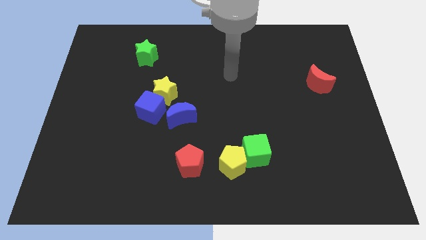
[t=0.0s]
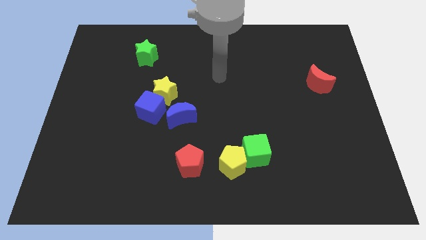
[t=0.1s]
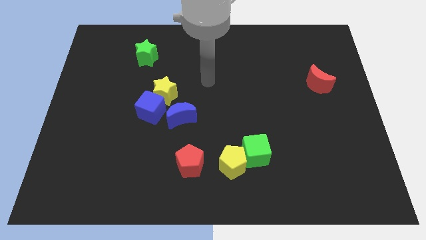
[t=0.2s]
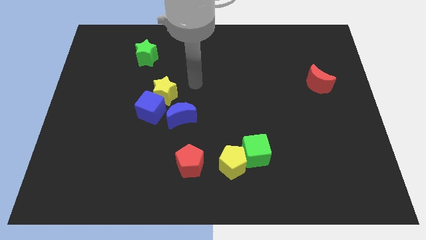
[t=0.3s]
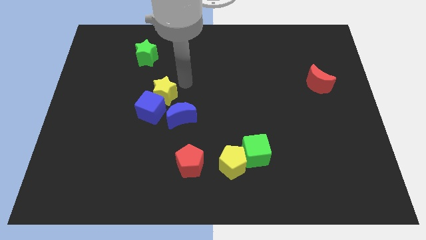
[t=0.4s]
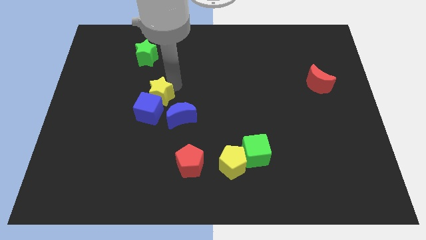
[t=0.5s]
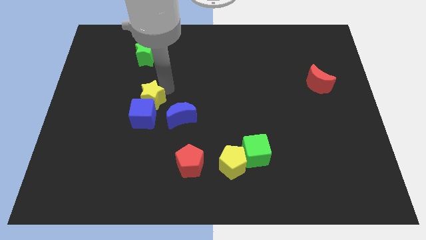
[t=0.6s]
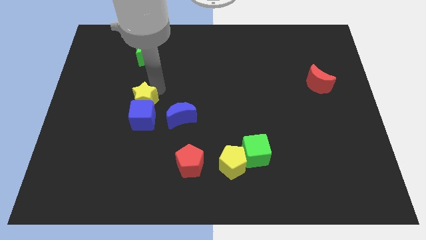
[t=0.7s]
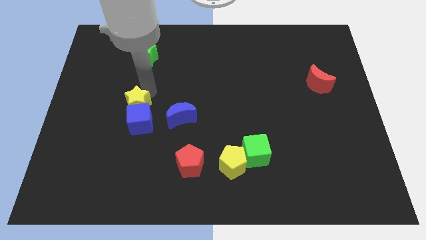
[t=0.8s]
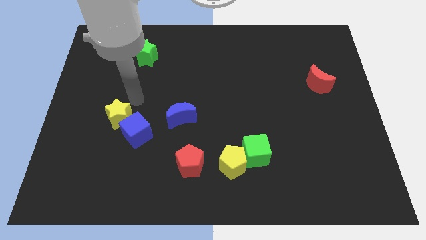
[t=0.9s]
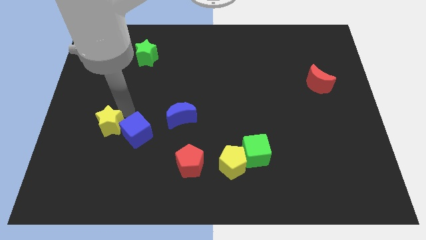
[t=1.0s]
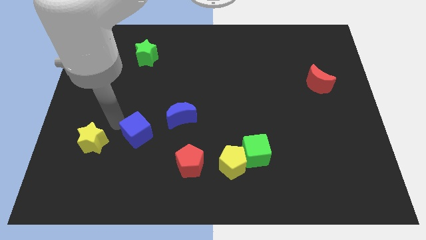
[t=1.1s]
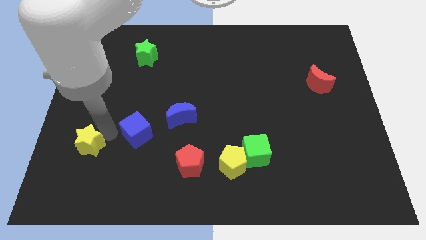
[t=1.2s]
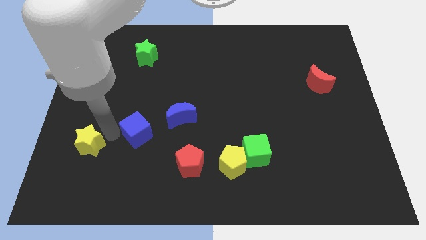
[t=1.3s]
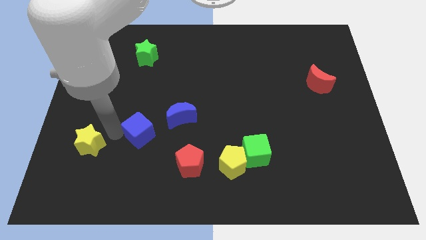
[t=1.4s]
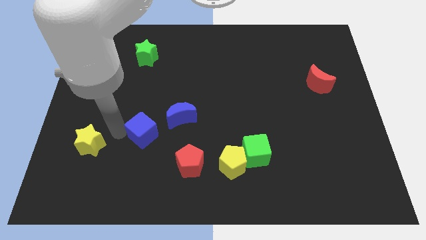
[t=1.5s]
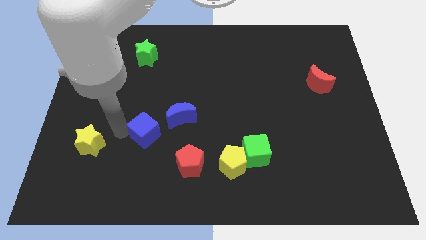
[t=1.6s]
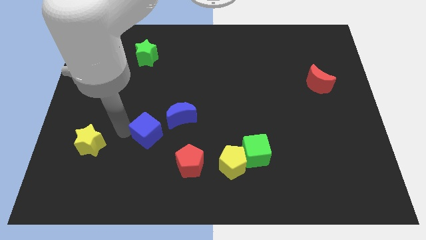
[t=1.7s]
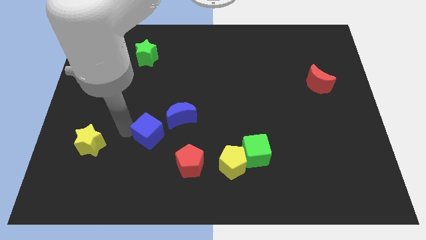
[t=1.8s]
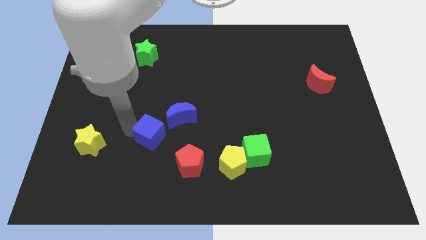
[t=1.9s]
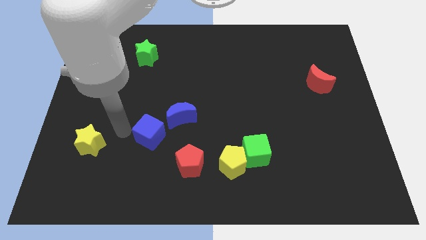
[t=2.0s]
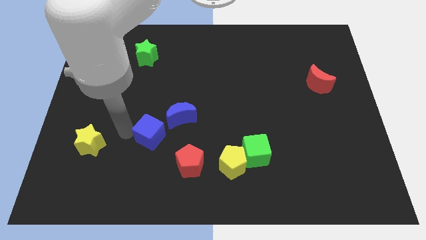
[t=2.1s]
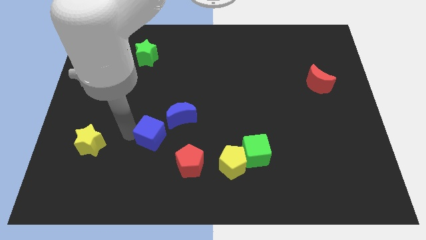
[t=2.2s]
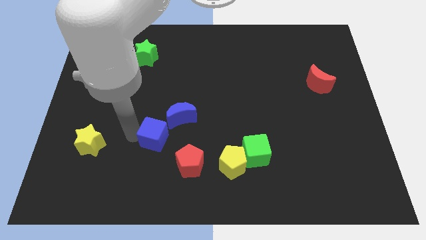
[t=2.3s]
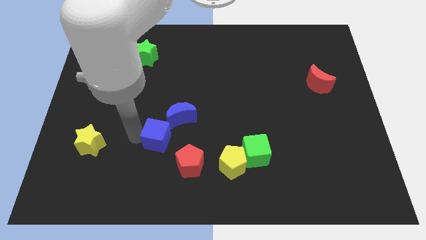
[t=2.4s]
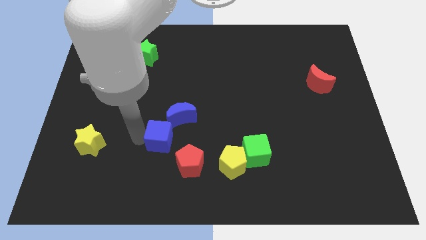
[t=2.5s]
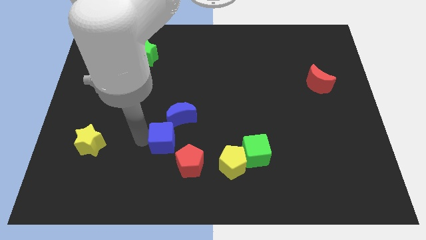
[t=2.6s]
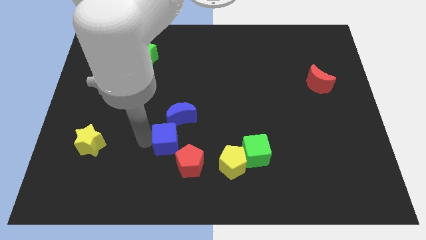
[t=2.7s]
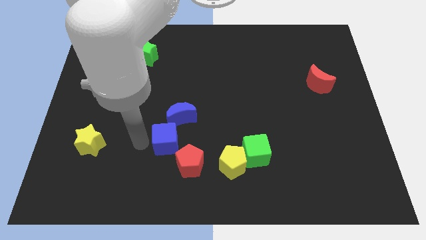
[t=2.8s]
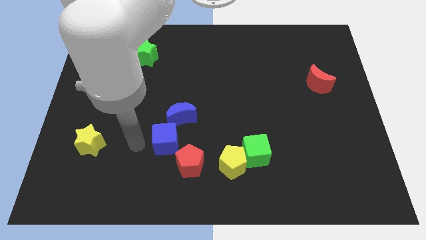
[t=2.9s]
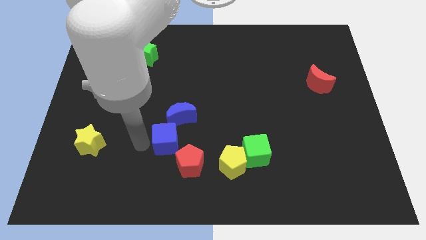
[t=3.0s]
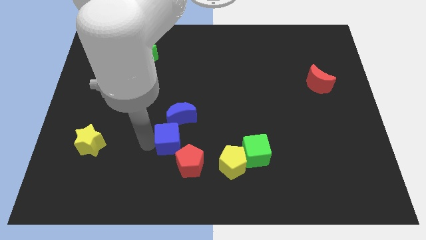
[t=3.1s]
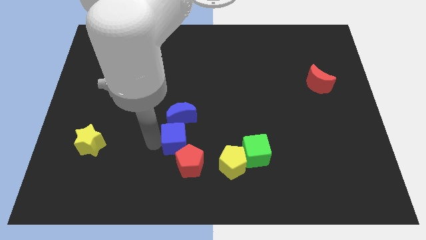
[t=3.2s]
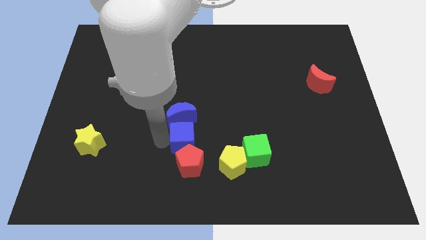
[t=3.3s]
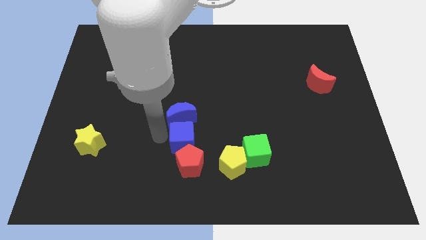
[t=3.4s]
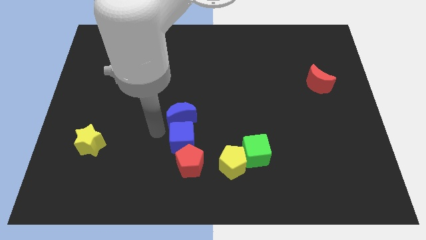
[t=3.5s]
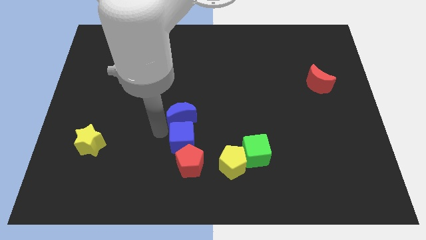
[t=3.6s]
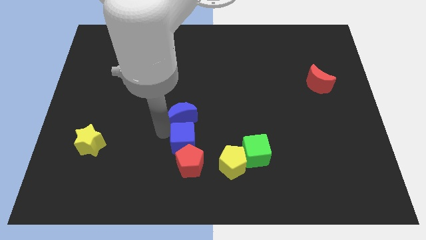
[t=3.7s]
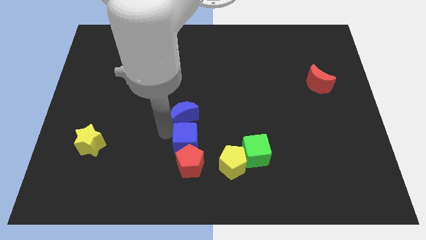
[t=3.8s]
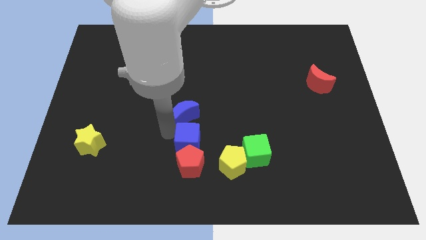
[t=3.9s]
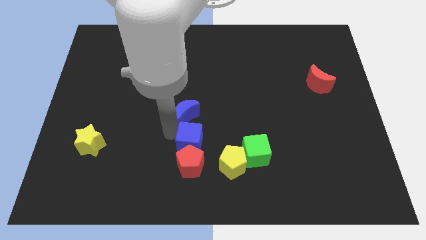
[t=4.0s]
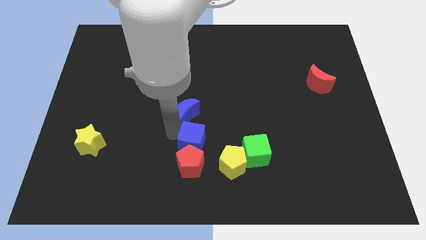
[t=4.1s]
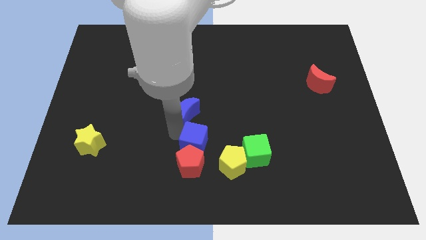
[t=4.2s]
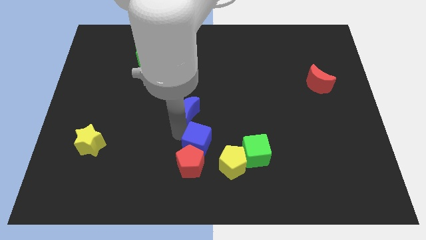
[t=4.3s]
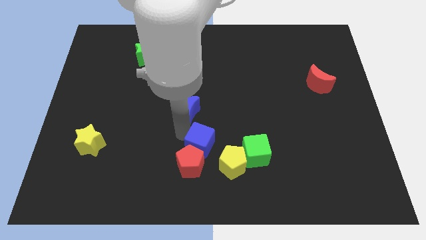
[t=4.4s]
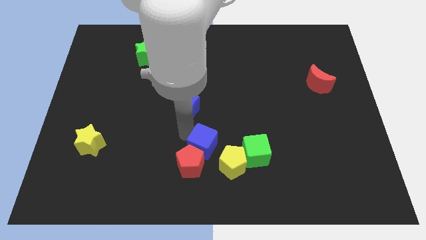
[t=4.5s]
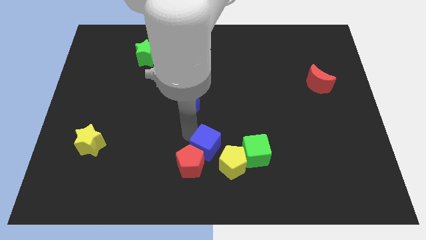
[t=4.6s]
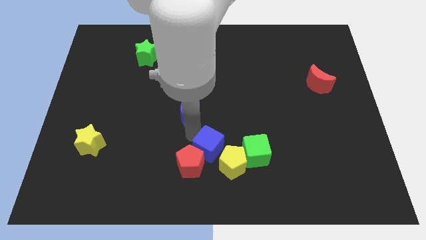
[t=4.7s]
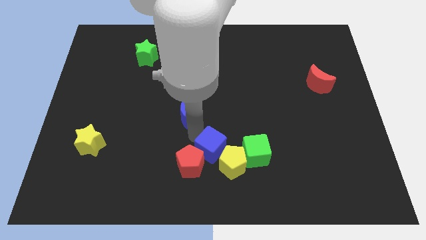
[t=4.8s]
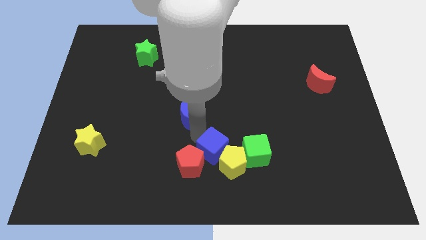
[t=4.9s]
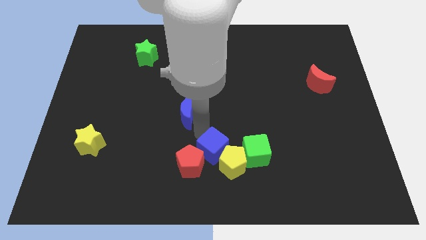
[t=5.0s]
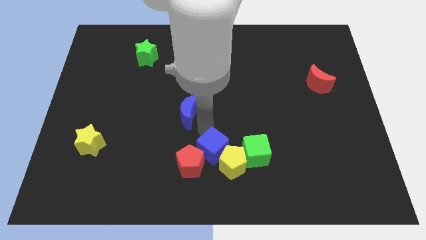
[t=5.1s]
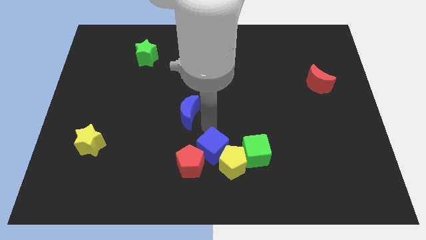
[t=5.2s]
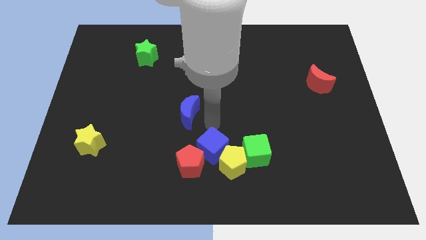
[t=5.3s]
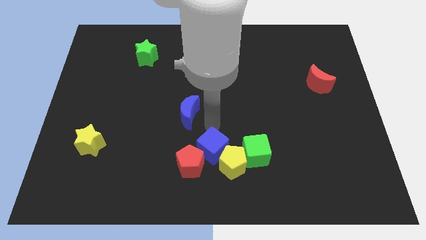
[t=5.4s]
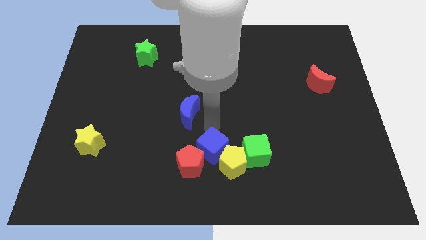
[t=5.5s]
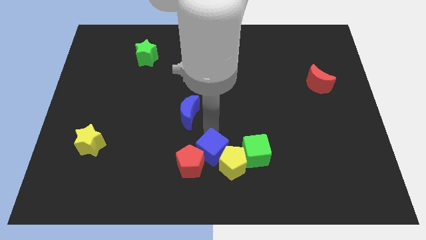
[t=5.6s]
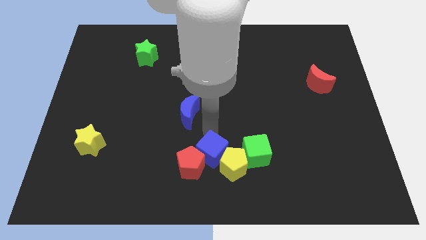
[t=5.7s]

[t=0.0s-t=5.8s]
push the blue cube to the bottom side

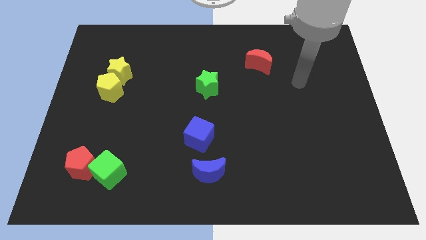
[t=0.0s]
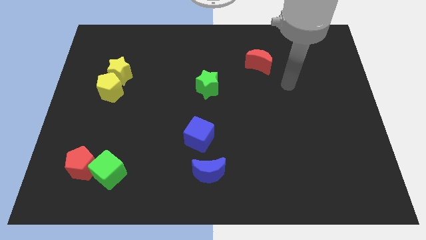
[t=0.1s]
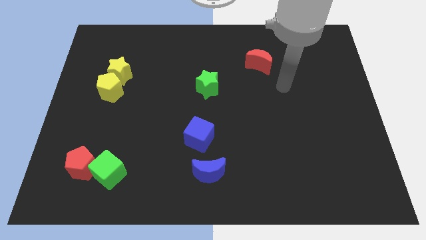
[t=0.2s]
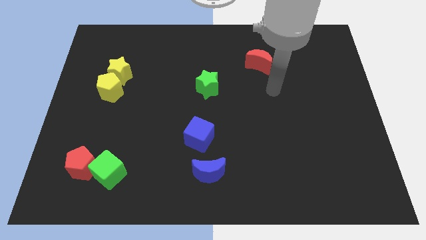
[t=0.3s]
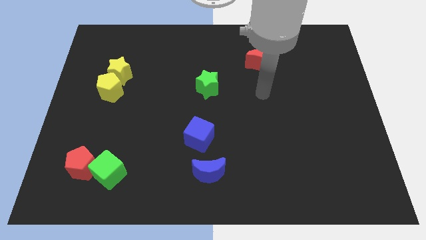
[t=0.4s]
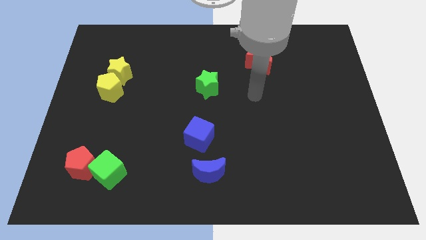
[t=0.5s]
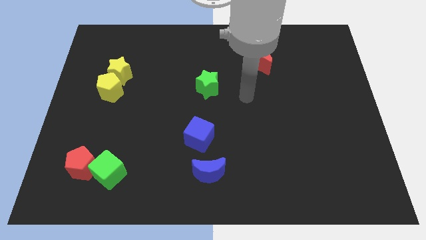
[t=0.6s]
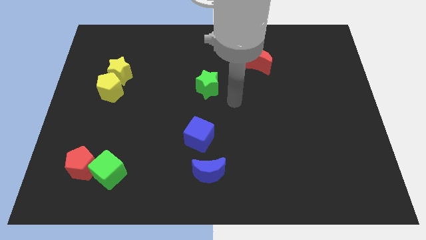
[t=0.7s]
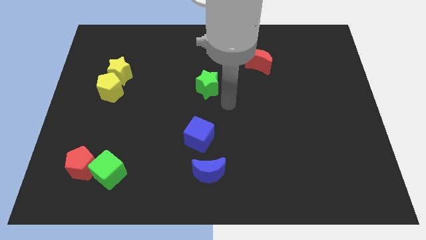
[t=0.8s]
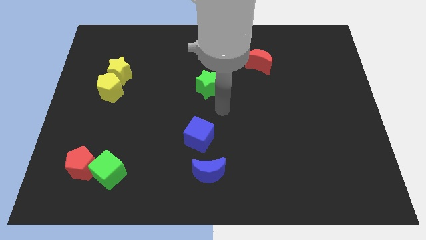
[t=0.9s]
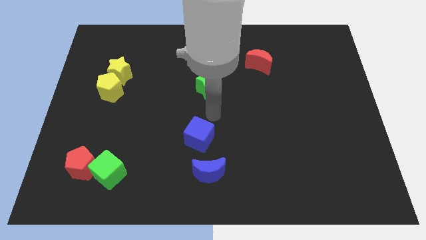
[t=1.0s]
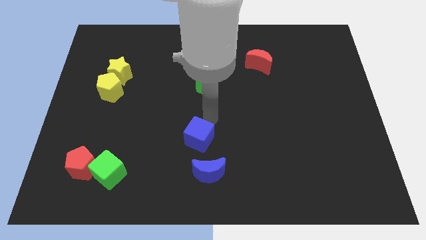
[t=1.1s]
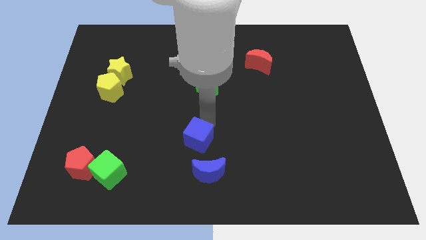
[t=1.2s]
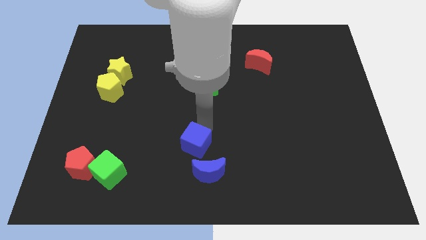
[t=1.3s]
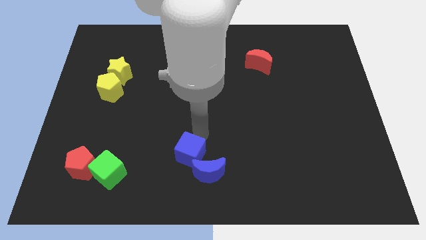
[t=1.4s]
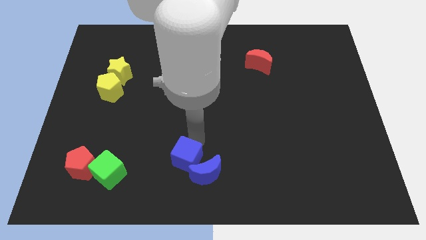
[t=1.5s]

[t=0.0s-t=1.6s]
put the blue cube to the bottom side
